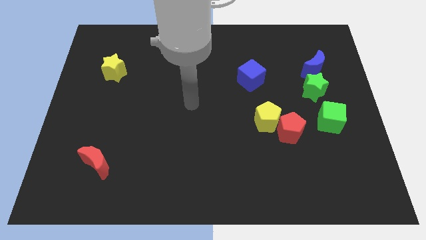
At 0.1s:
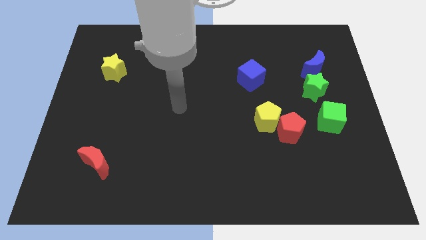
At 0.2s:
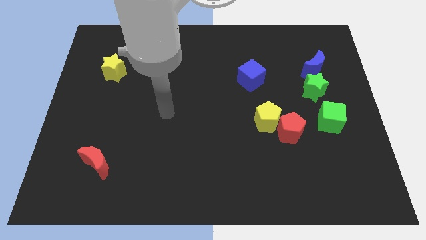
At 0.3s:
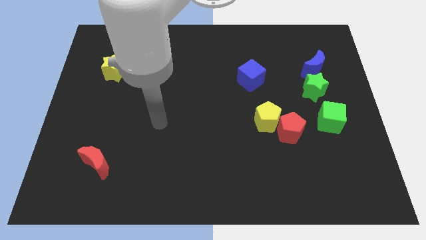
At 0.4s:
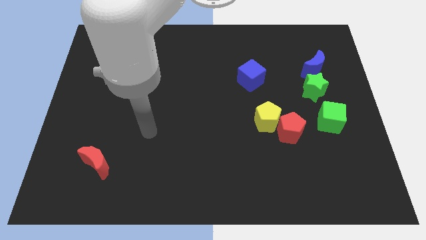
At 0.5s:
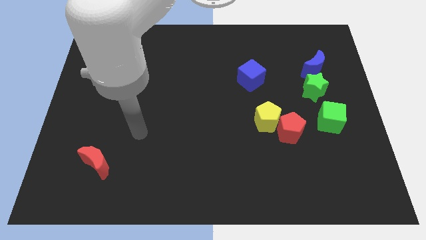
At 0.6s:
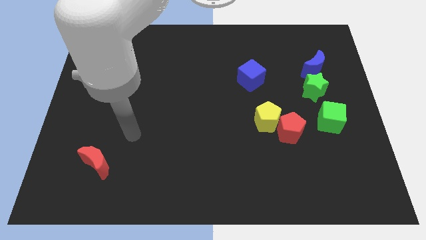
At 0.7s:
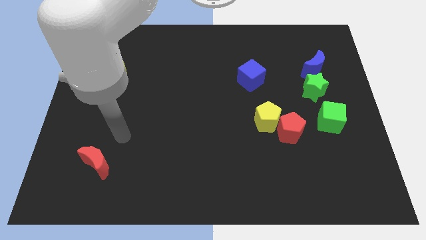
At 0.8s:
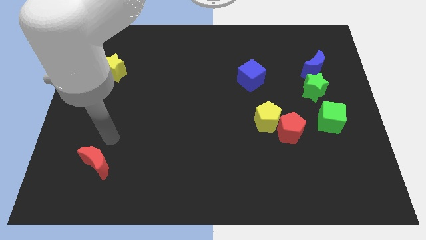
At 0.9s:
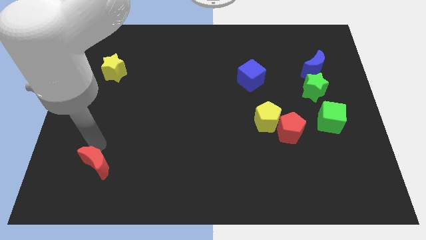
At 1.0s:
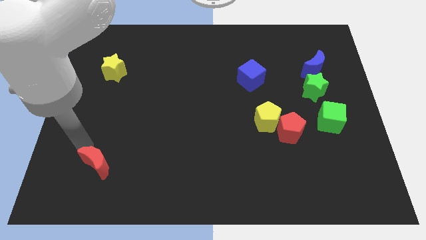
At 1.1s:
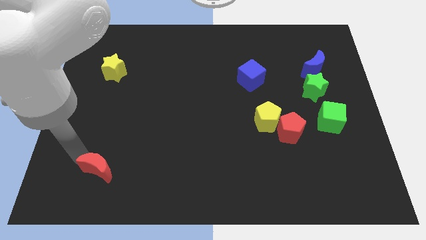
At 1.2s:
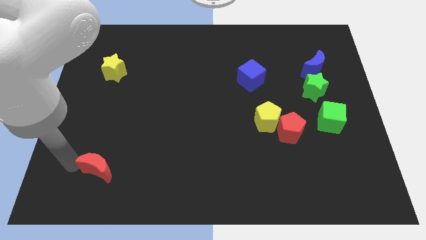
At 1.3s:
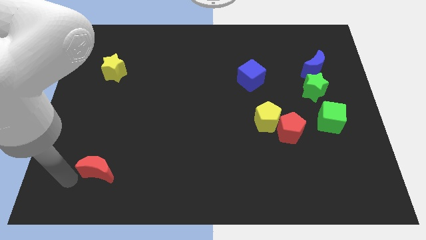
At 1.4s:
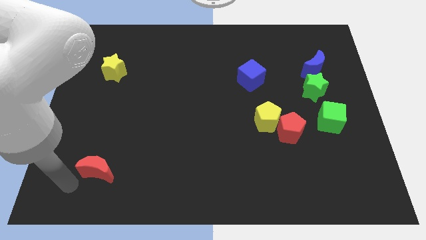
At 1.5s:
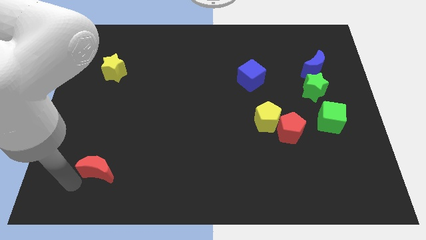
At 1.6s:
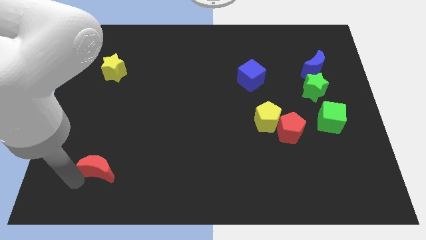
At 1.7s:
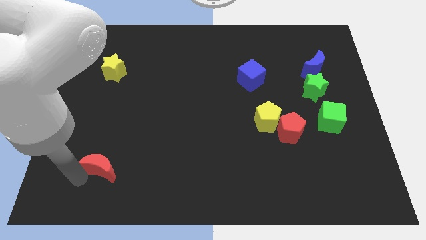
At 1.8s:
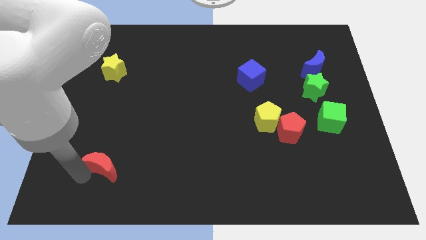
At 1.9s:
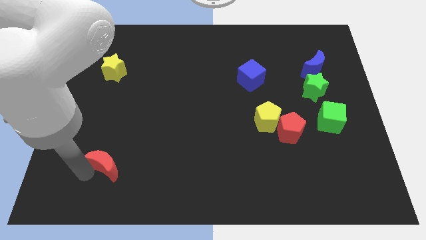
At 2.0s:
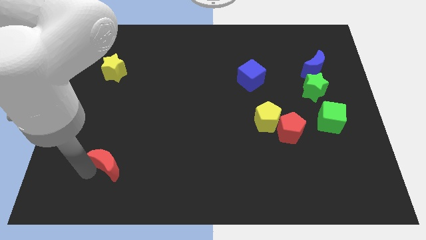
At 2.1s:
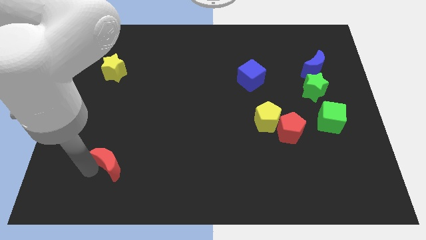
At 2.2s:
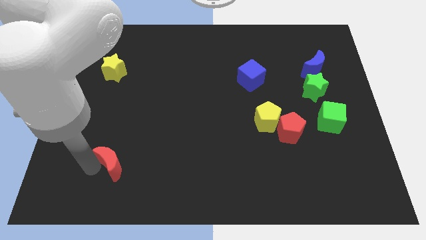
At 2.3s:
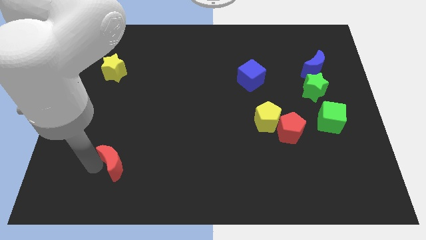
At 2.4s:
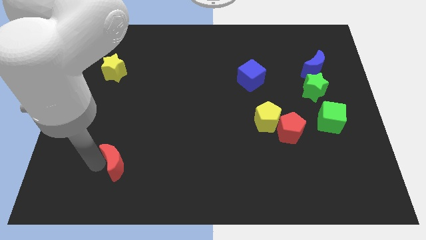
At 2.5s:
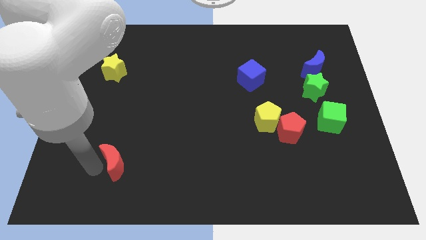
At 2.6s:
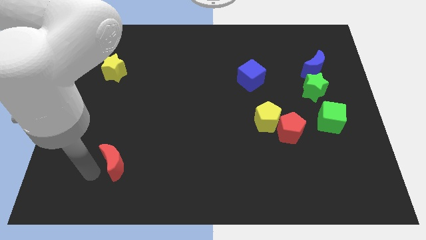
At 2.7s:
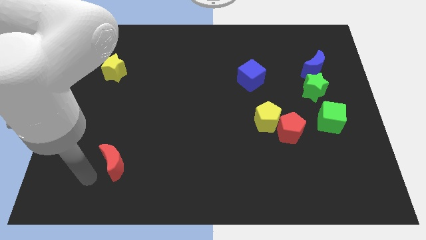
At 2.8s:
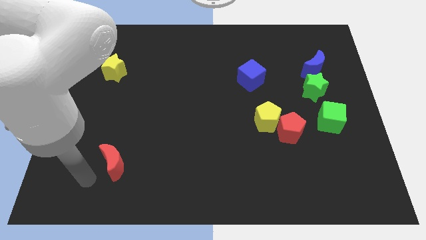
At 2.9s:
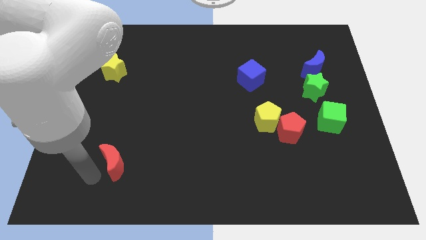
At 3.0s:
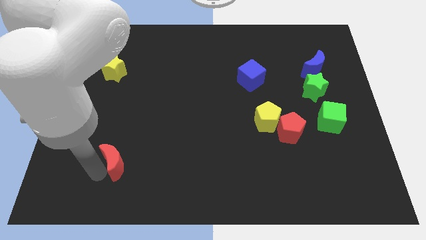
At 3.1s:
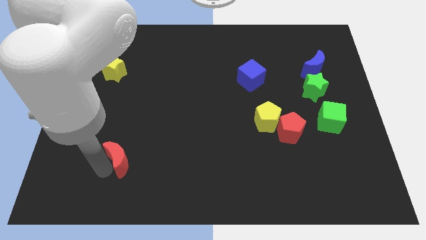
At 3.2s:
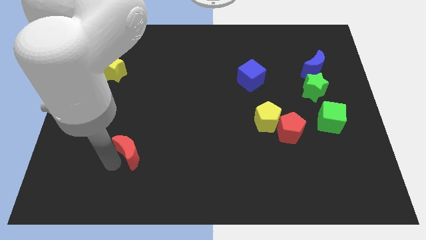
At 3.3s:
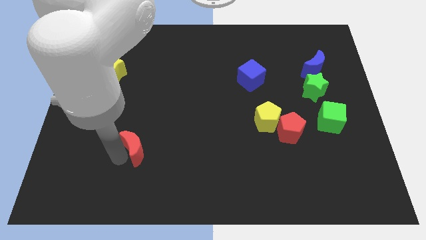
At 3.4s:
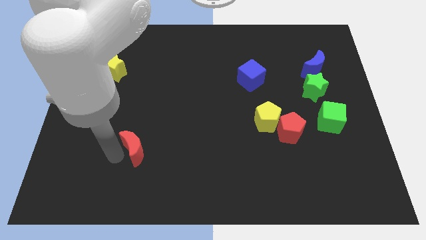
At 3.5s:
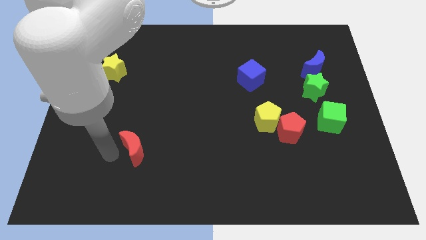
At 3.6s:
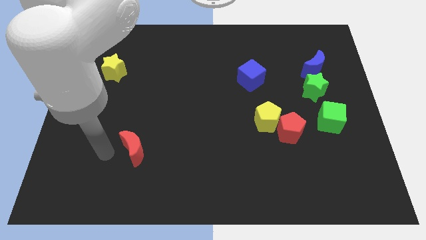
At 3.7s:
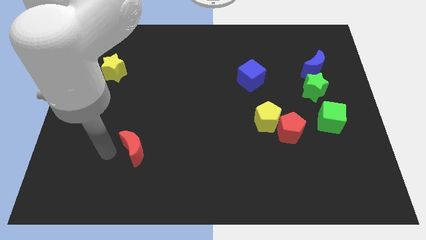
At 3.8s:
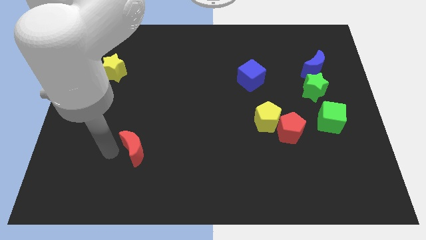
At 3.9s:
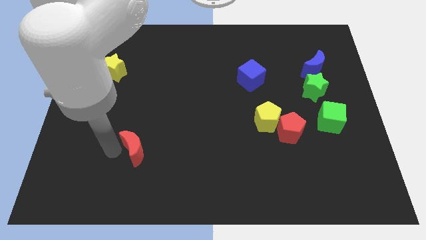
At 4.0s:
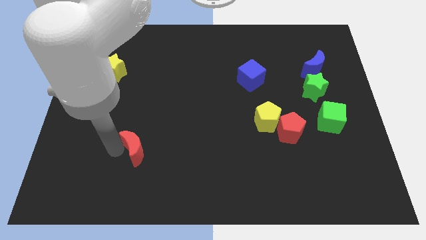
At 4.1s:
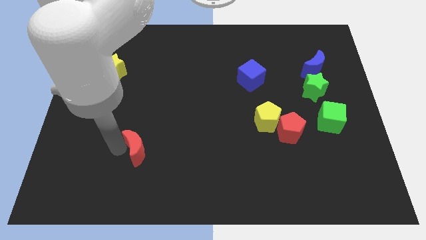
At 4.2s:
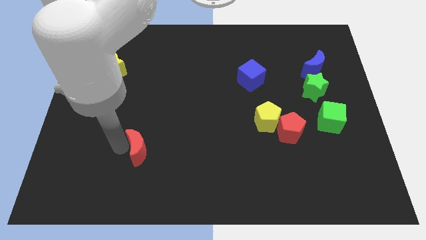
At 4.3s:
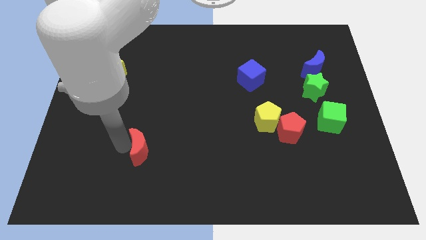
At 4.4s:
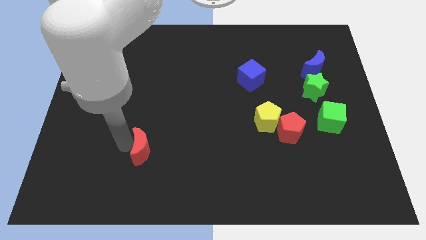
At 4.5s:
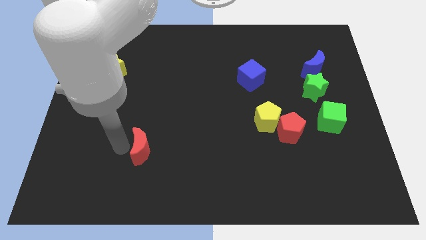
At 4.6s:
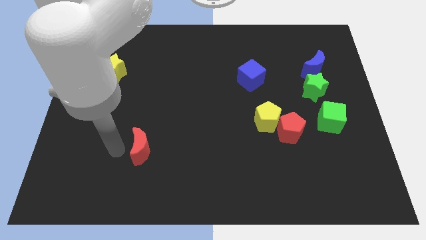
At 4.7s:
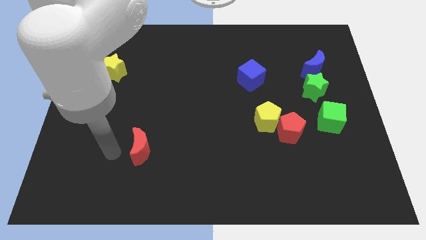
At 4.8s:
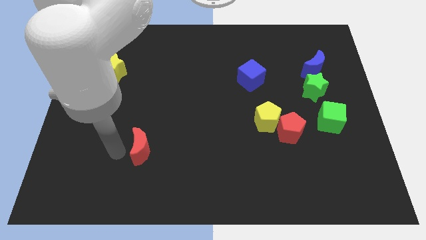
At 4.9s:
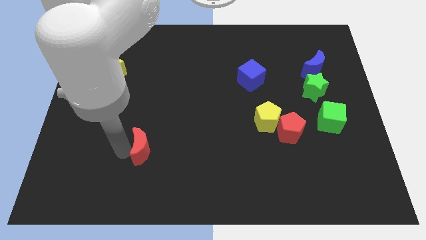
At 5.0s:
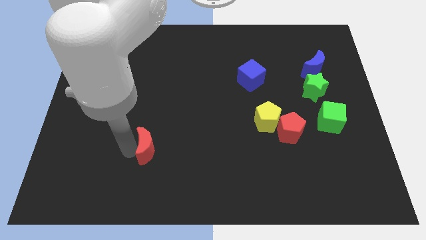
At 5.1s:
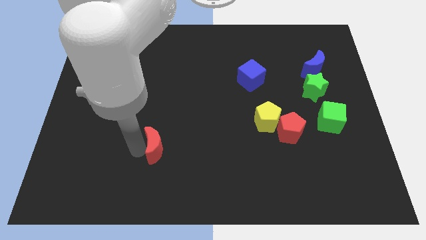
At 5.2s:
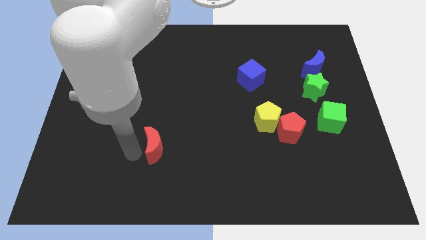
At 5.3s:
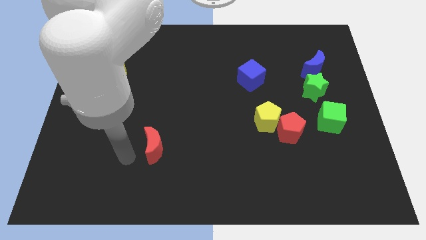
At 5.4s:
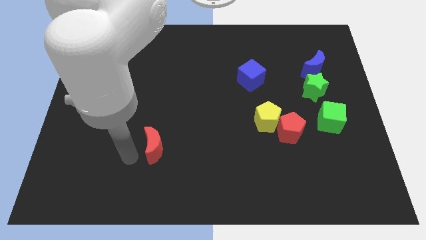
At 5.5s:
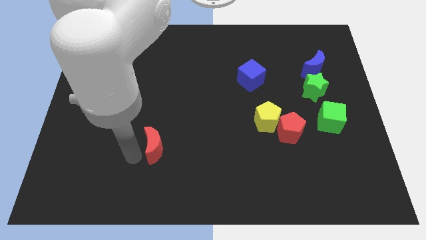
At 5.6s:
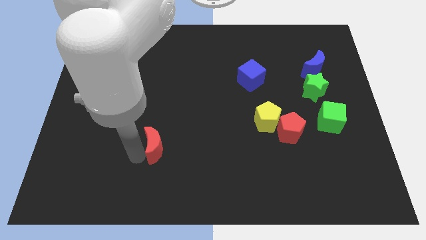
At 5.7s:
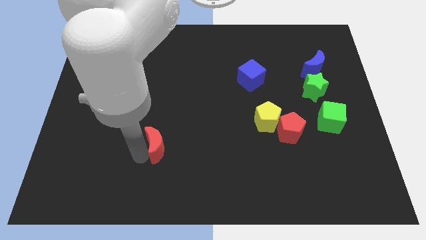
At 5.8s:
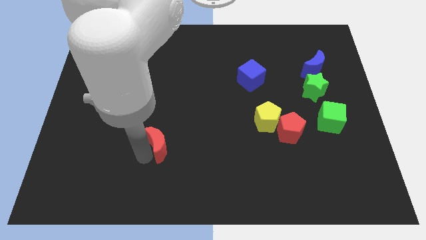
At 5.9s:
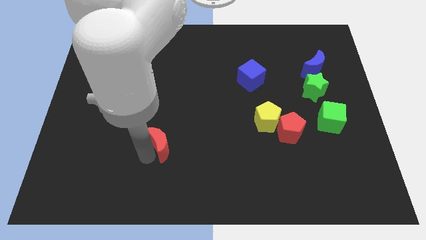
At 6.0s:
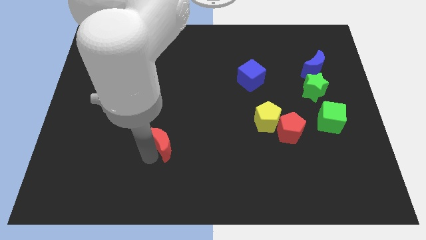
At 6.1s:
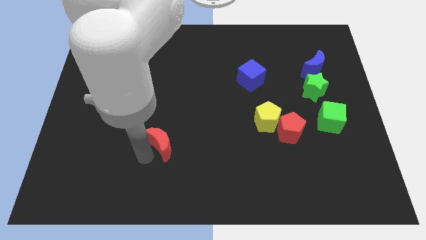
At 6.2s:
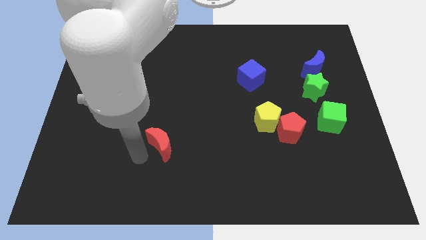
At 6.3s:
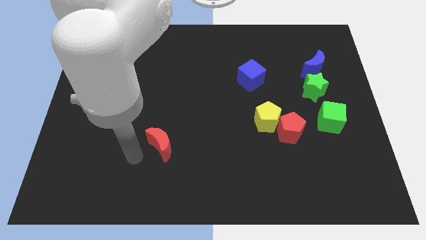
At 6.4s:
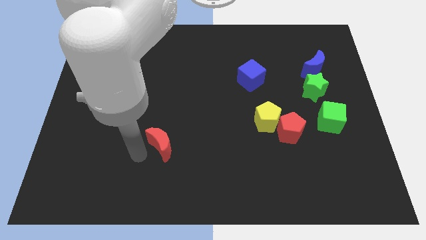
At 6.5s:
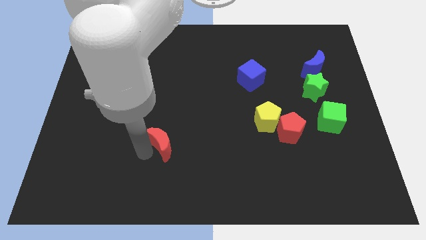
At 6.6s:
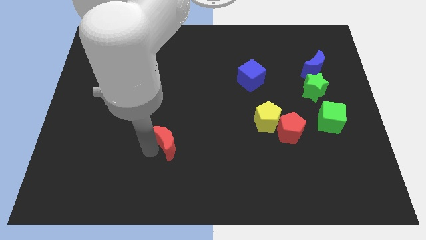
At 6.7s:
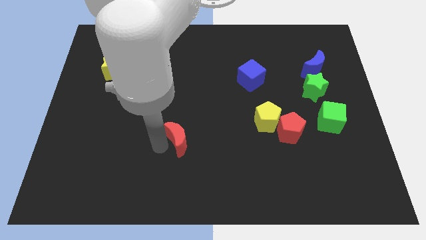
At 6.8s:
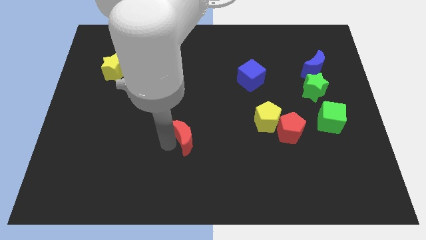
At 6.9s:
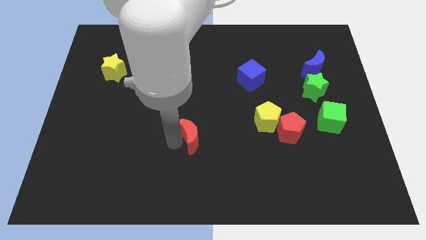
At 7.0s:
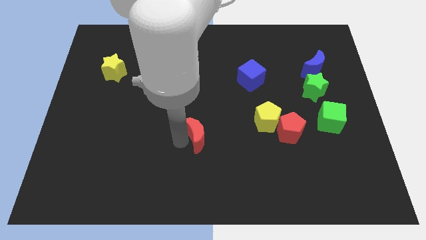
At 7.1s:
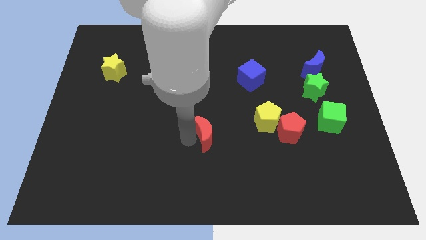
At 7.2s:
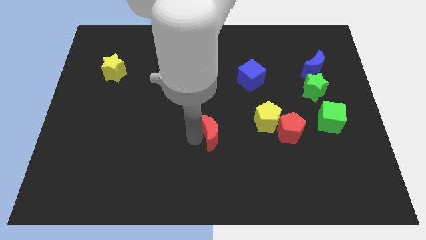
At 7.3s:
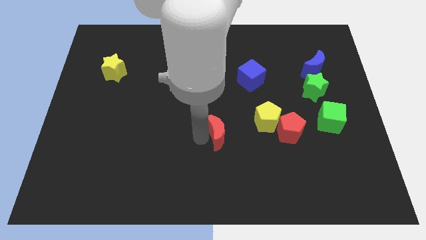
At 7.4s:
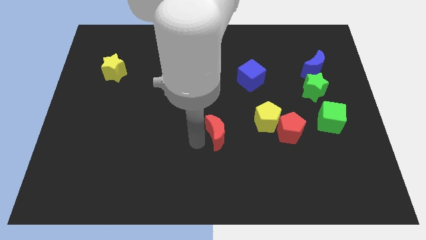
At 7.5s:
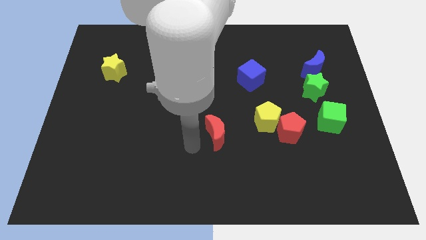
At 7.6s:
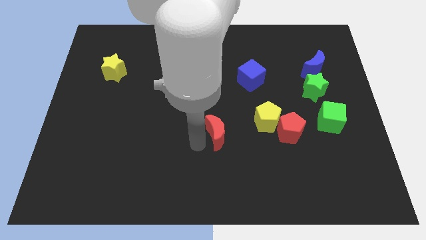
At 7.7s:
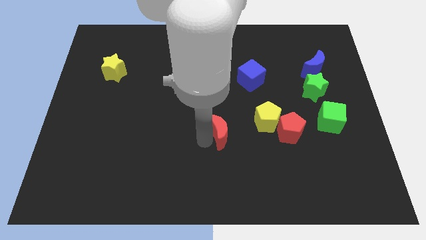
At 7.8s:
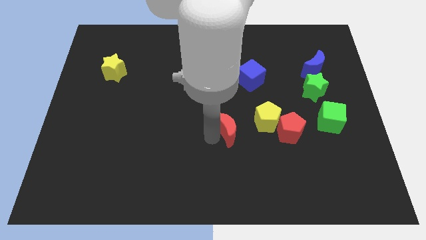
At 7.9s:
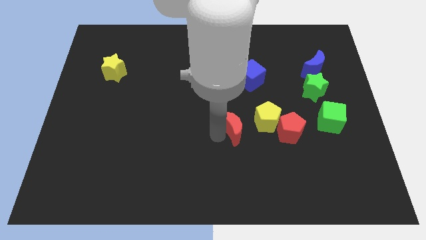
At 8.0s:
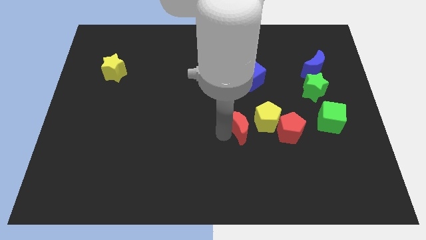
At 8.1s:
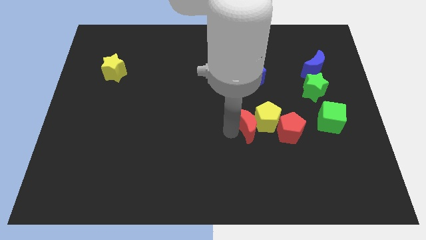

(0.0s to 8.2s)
put the red moon close to the yellow pentagon
